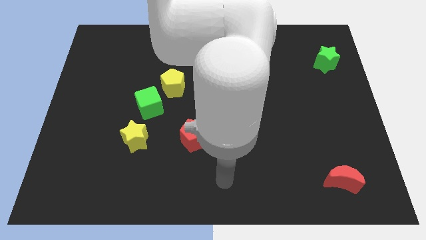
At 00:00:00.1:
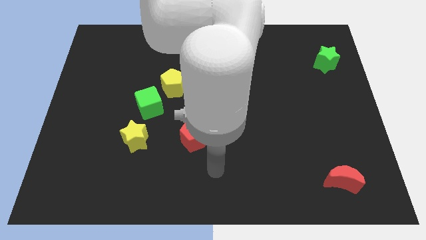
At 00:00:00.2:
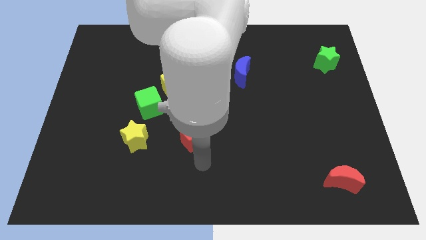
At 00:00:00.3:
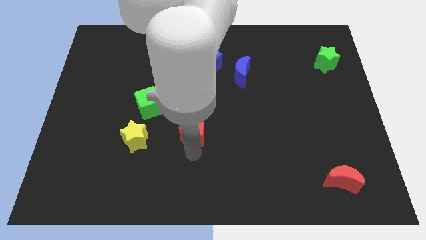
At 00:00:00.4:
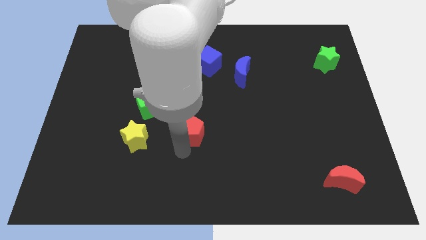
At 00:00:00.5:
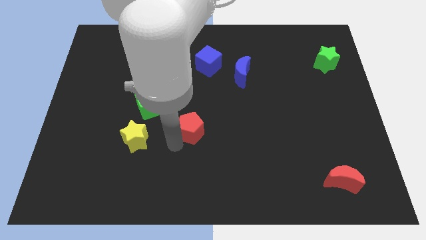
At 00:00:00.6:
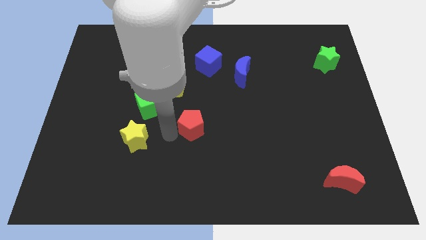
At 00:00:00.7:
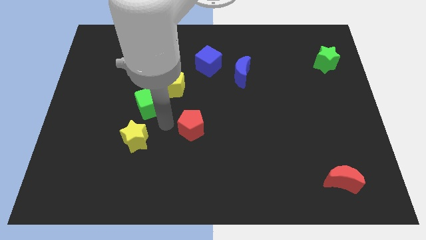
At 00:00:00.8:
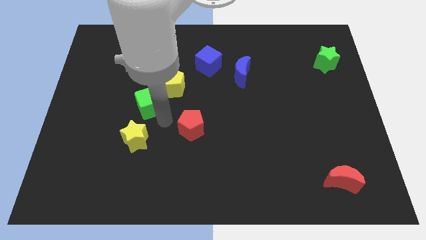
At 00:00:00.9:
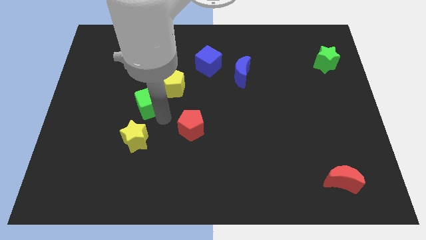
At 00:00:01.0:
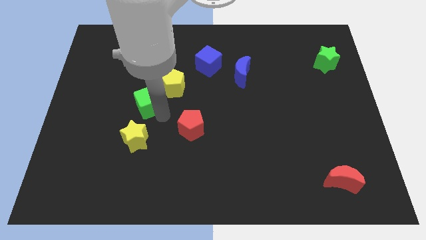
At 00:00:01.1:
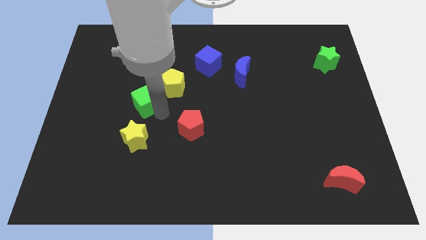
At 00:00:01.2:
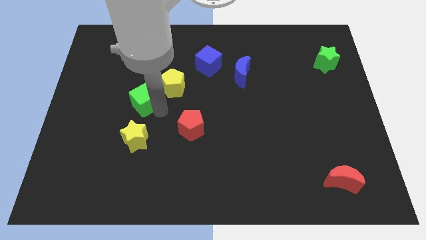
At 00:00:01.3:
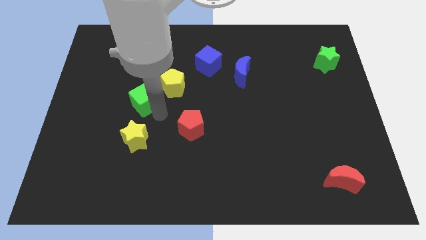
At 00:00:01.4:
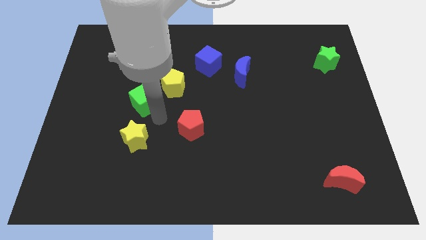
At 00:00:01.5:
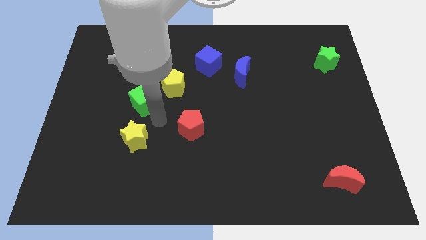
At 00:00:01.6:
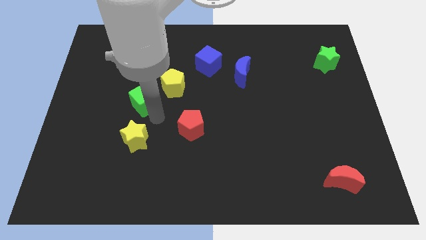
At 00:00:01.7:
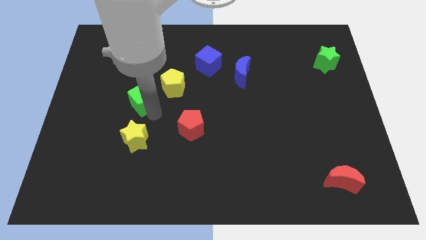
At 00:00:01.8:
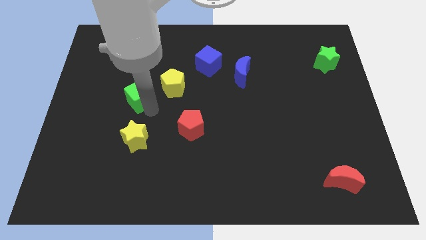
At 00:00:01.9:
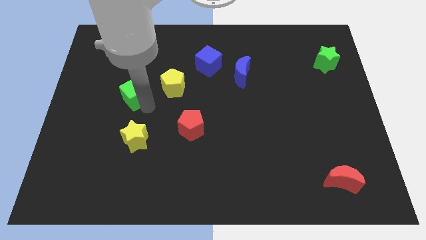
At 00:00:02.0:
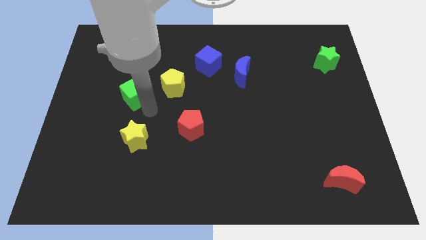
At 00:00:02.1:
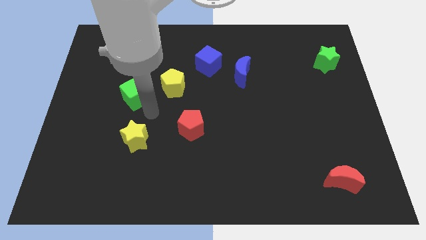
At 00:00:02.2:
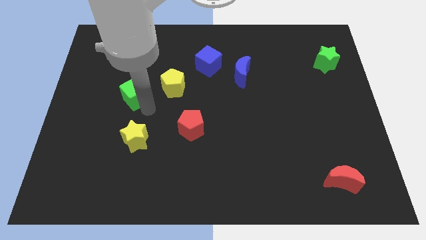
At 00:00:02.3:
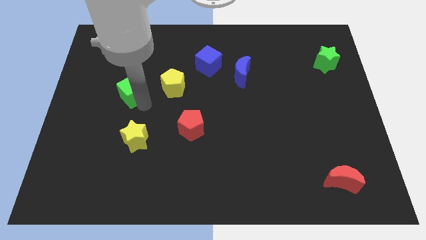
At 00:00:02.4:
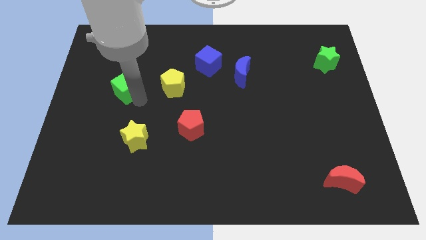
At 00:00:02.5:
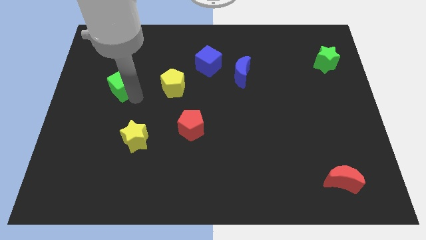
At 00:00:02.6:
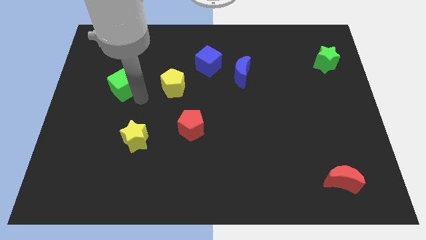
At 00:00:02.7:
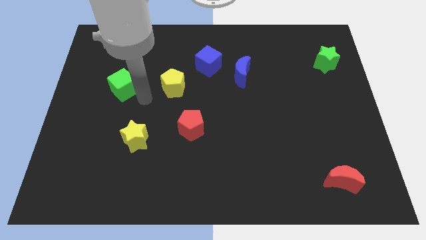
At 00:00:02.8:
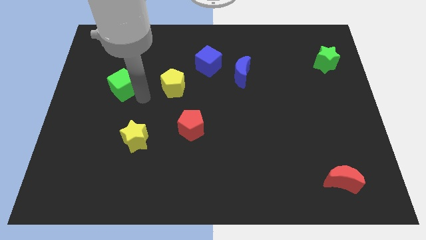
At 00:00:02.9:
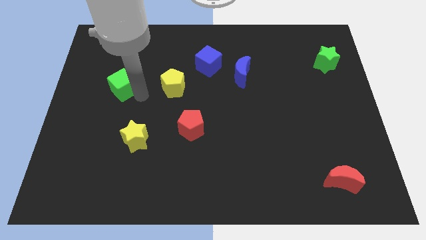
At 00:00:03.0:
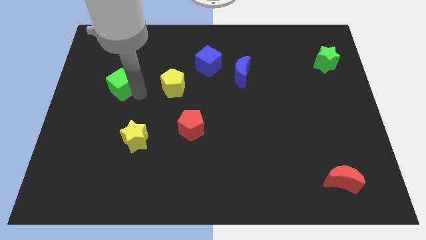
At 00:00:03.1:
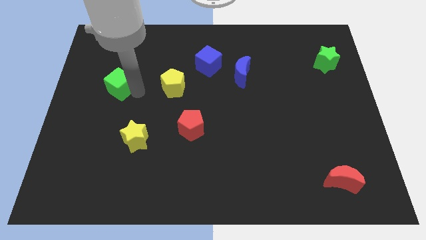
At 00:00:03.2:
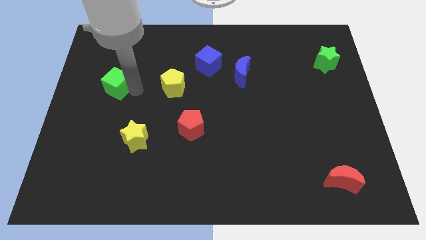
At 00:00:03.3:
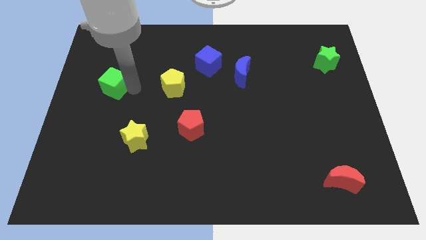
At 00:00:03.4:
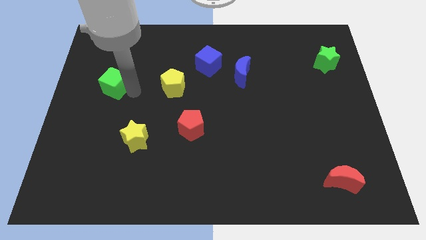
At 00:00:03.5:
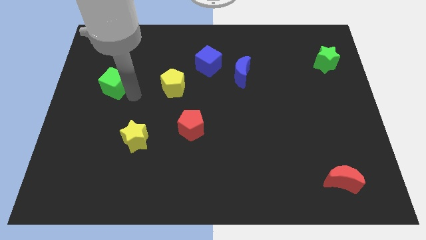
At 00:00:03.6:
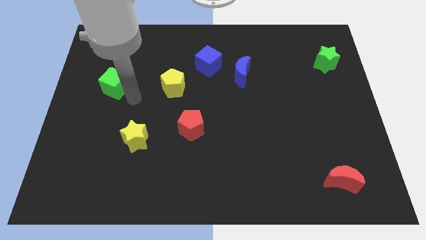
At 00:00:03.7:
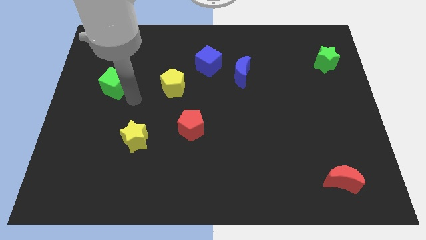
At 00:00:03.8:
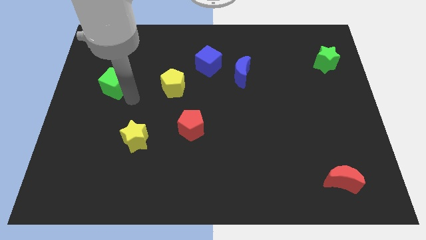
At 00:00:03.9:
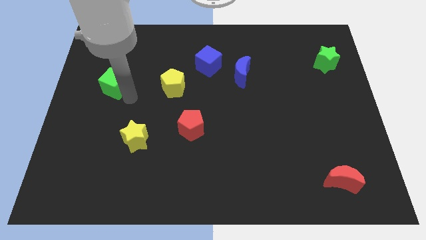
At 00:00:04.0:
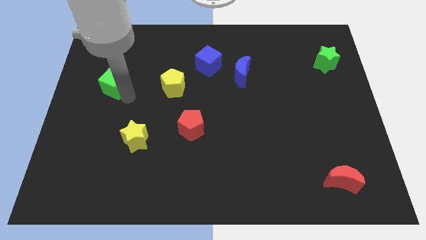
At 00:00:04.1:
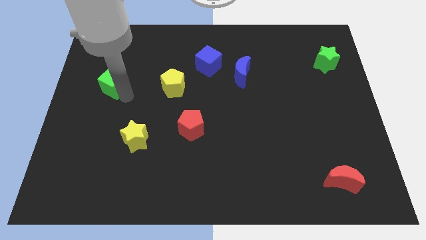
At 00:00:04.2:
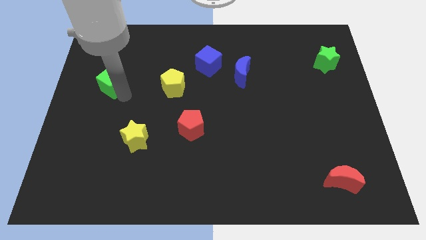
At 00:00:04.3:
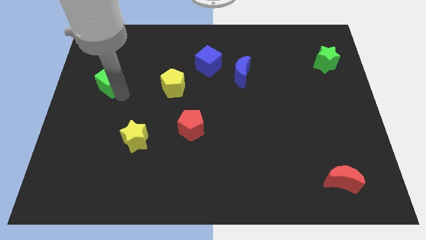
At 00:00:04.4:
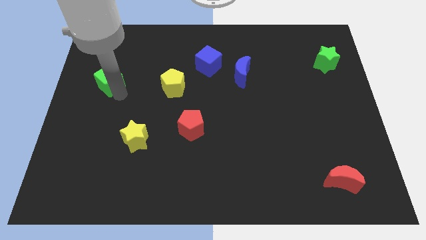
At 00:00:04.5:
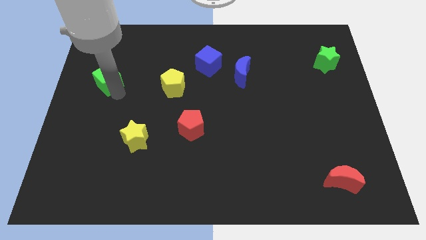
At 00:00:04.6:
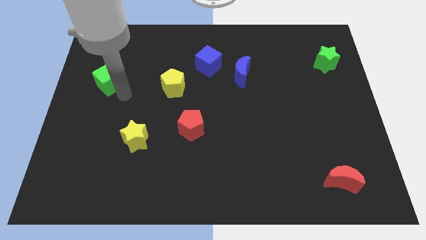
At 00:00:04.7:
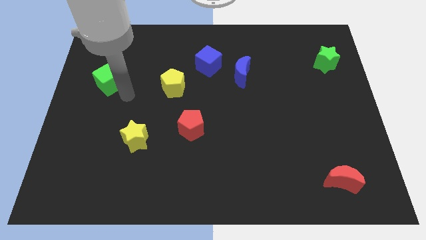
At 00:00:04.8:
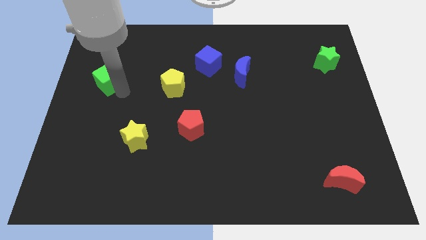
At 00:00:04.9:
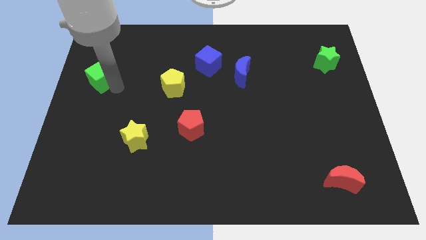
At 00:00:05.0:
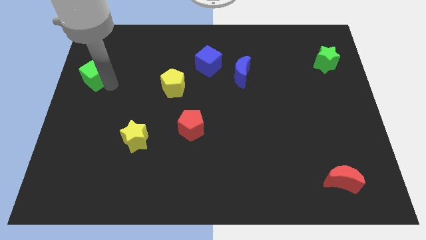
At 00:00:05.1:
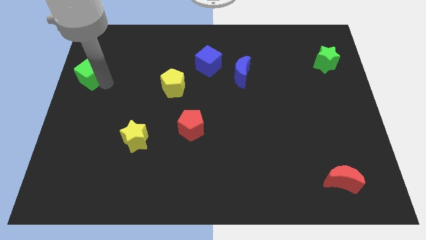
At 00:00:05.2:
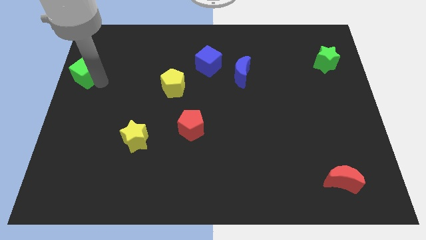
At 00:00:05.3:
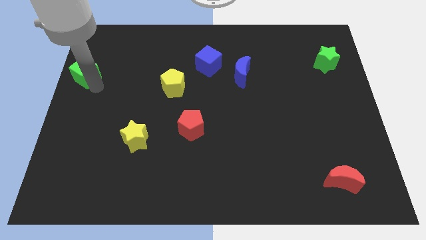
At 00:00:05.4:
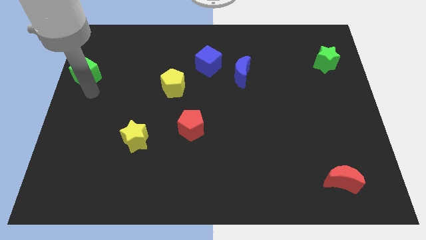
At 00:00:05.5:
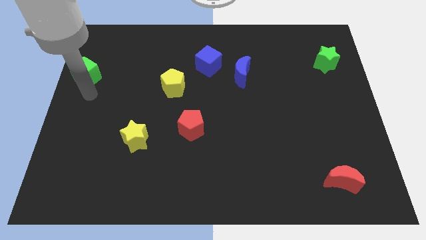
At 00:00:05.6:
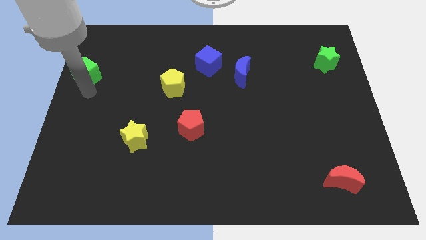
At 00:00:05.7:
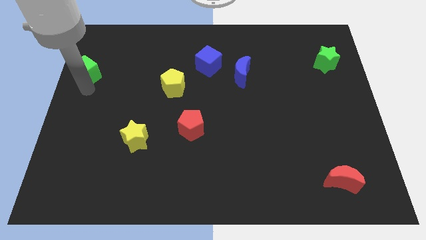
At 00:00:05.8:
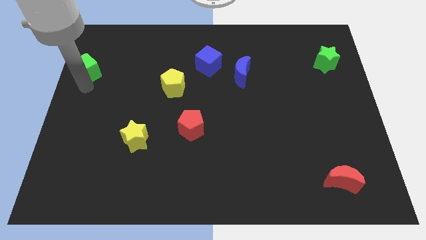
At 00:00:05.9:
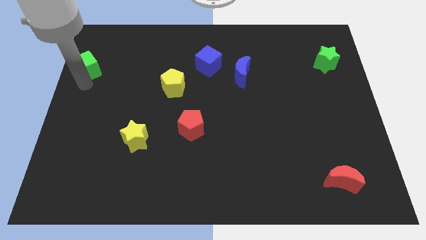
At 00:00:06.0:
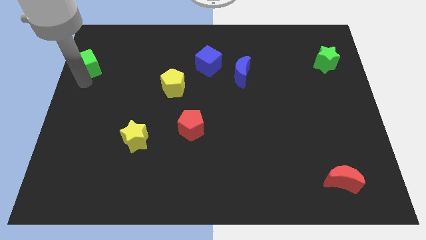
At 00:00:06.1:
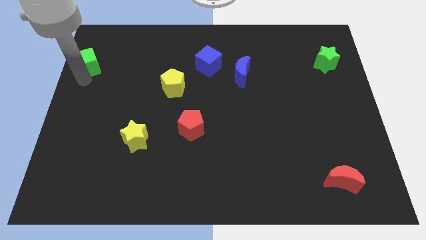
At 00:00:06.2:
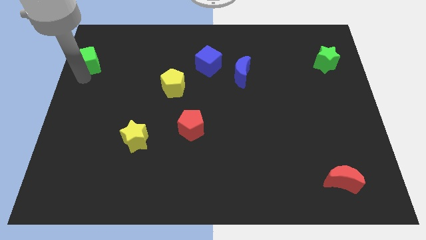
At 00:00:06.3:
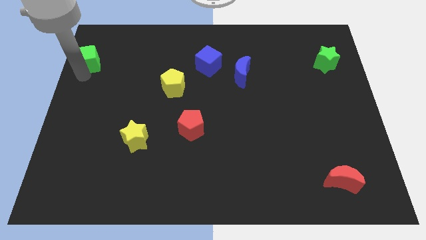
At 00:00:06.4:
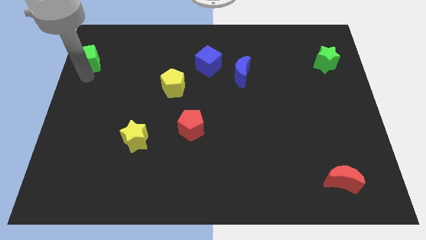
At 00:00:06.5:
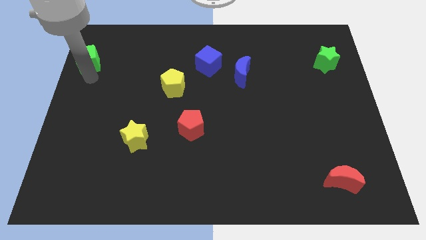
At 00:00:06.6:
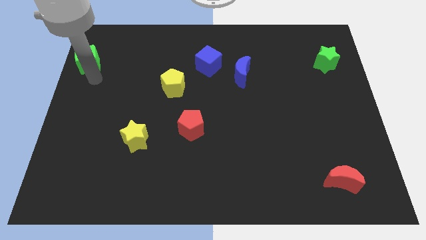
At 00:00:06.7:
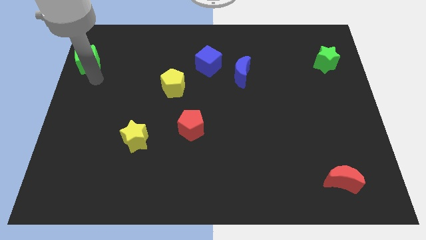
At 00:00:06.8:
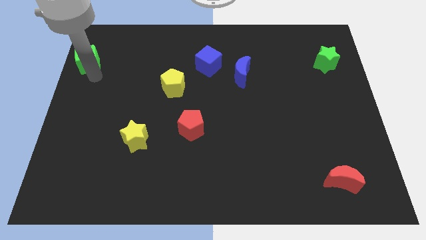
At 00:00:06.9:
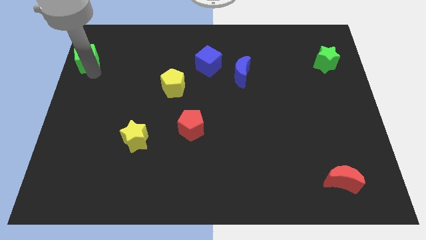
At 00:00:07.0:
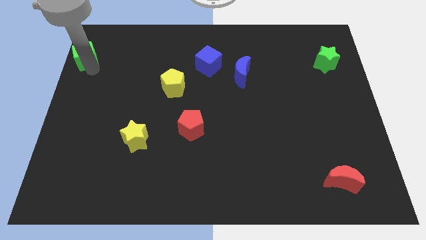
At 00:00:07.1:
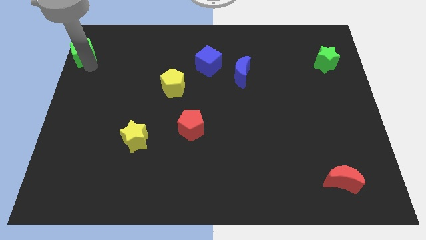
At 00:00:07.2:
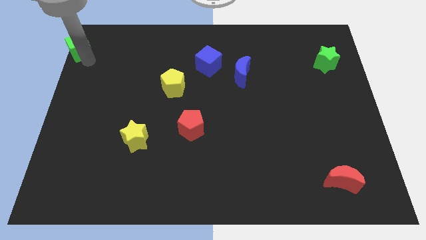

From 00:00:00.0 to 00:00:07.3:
slide the green cube to the top left
